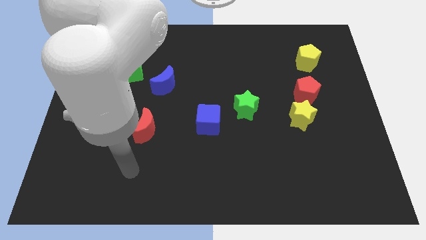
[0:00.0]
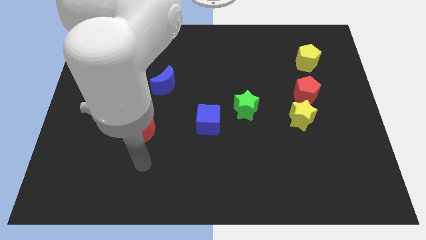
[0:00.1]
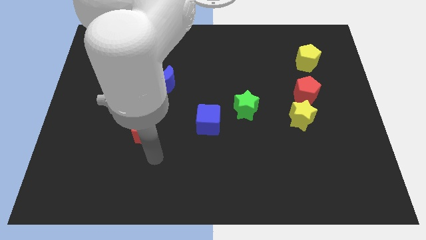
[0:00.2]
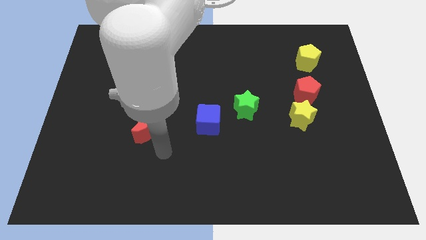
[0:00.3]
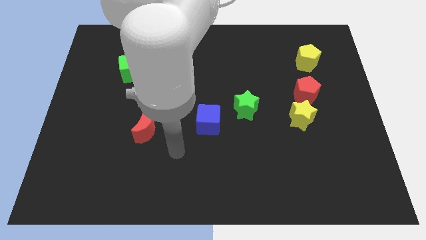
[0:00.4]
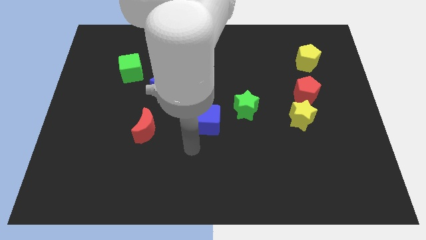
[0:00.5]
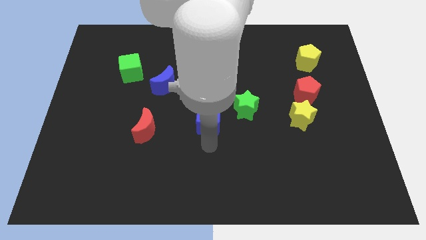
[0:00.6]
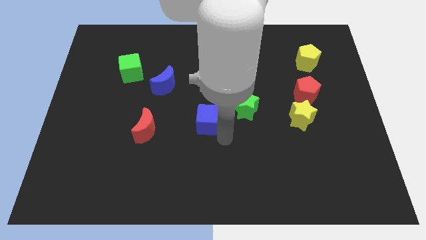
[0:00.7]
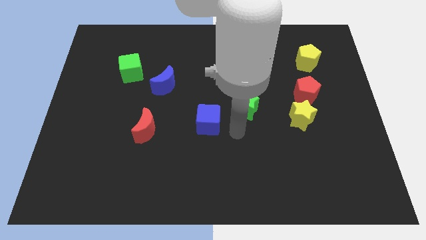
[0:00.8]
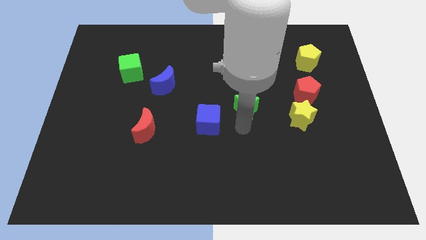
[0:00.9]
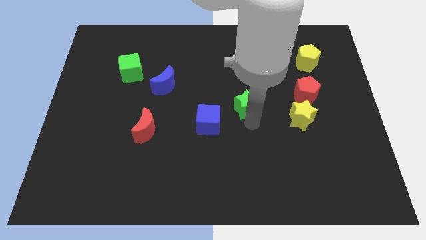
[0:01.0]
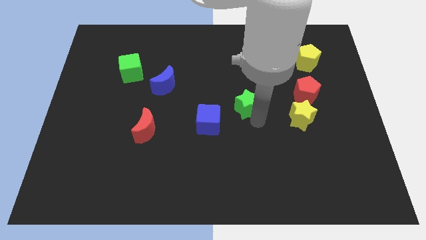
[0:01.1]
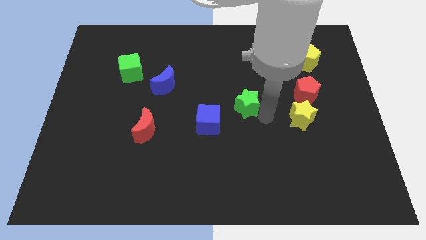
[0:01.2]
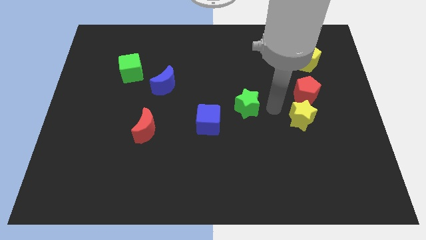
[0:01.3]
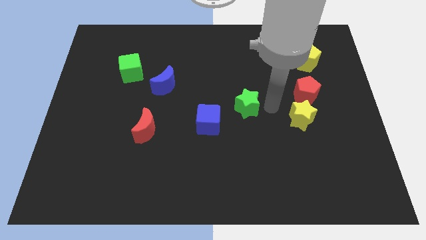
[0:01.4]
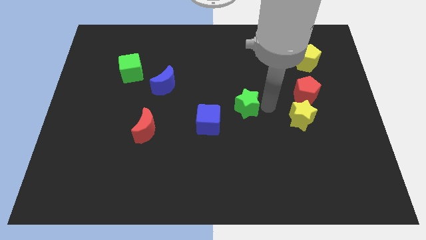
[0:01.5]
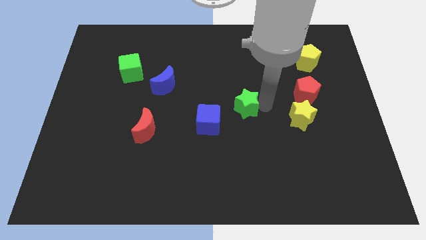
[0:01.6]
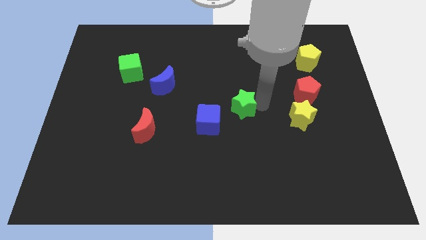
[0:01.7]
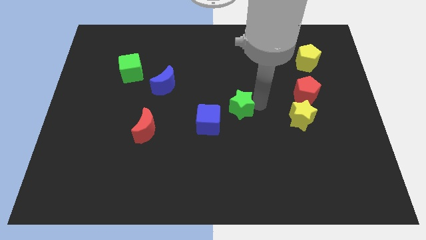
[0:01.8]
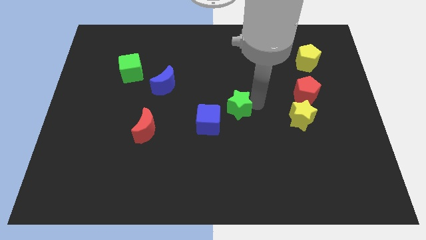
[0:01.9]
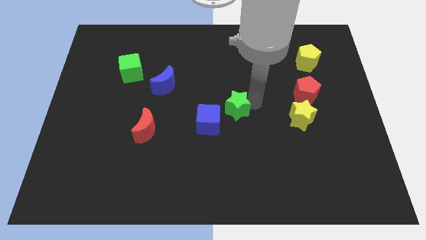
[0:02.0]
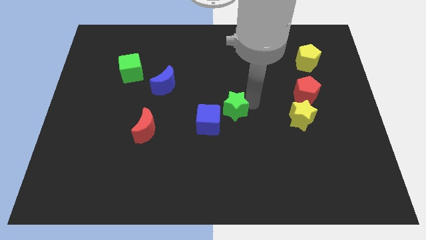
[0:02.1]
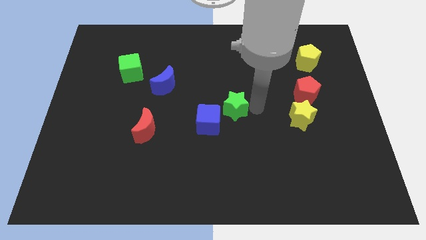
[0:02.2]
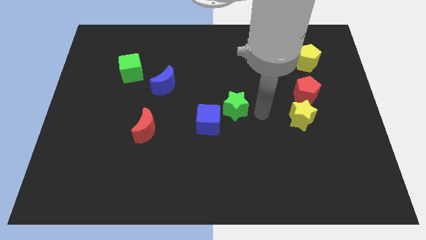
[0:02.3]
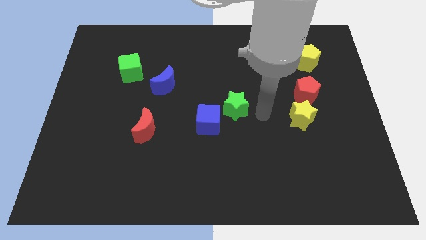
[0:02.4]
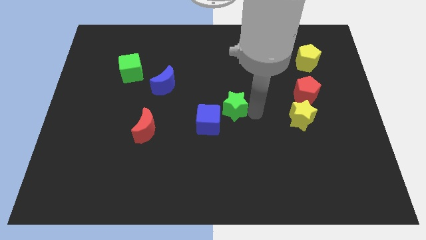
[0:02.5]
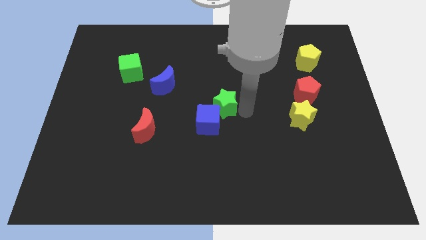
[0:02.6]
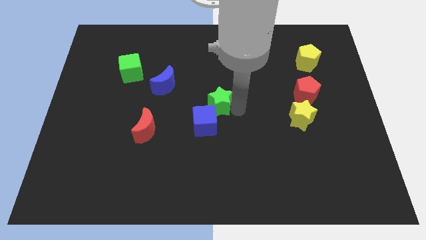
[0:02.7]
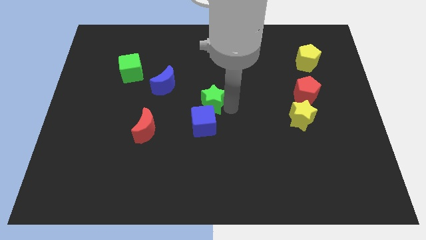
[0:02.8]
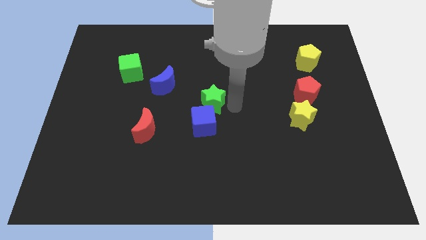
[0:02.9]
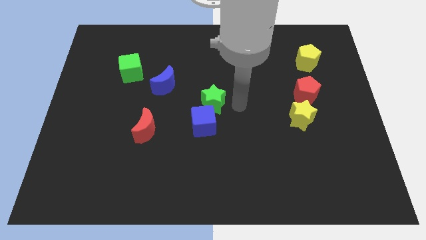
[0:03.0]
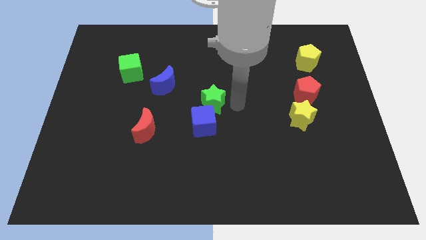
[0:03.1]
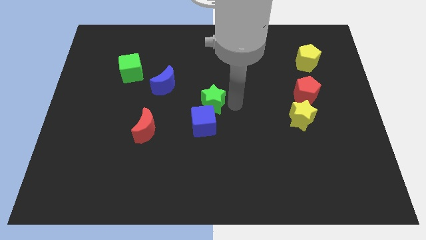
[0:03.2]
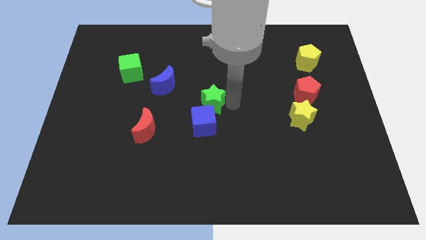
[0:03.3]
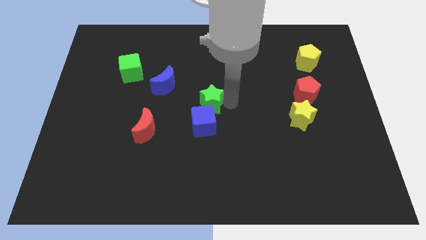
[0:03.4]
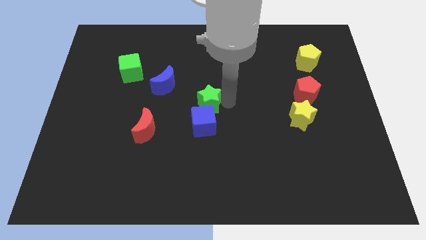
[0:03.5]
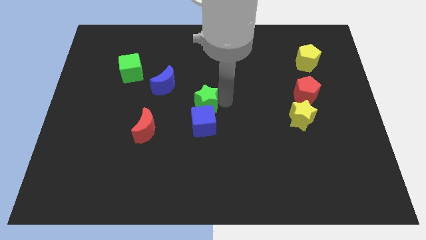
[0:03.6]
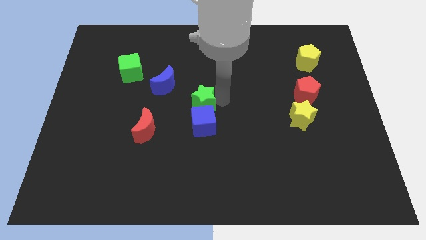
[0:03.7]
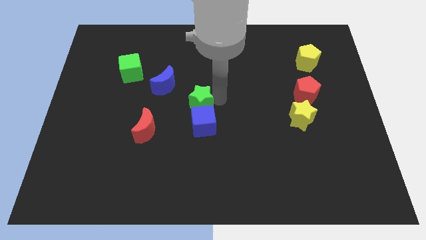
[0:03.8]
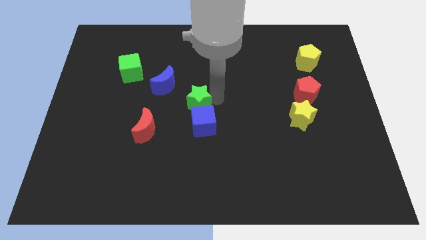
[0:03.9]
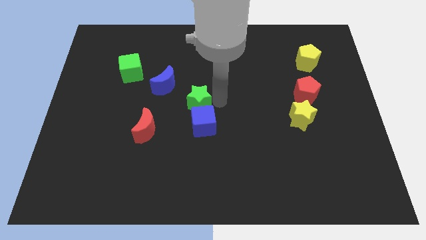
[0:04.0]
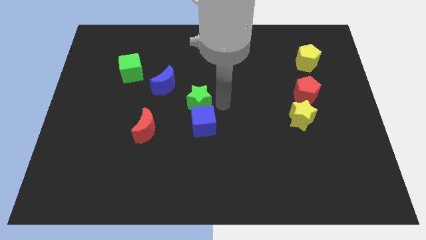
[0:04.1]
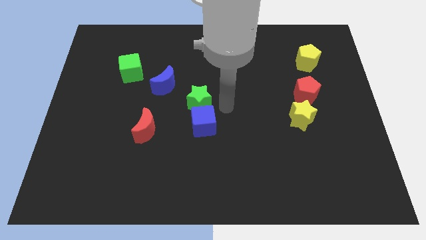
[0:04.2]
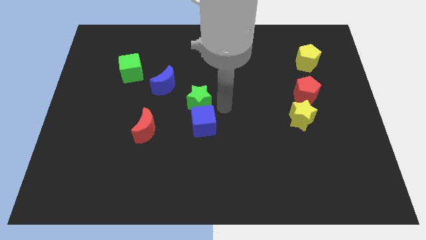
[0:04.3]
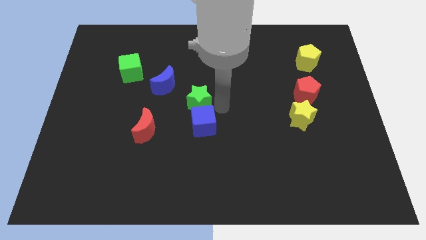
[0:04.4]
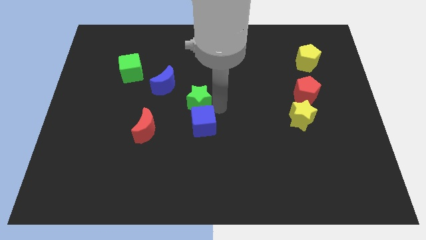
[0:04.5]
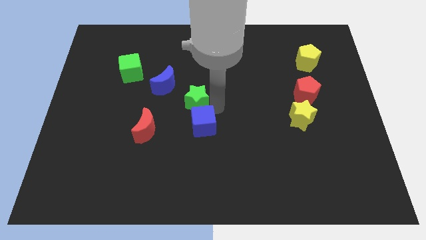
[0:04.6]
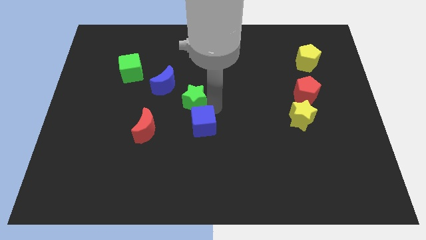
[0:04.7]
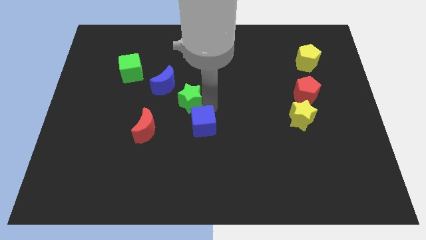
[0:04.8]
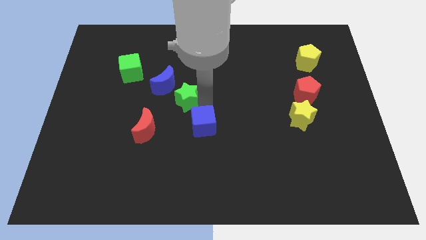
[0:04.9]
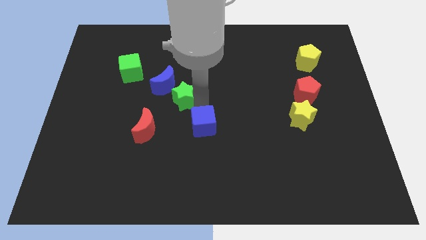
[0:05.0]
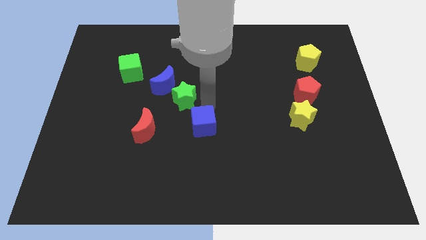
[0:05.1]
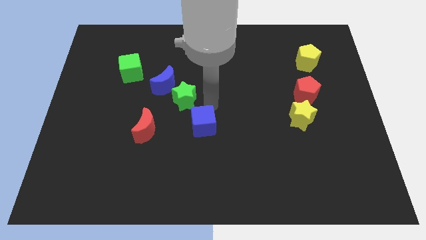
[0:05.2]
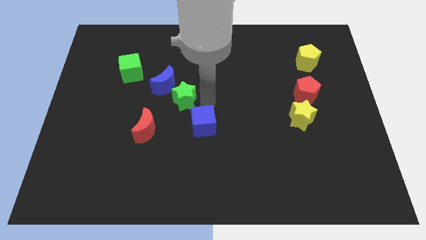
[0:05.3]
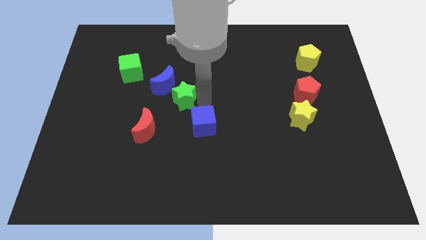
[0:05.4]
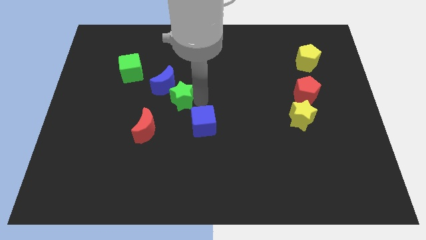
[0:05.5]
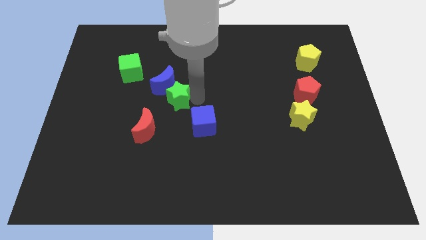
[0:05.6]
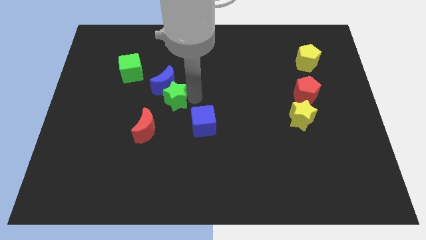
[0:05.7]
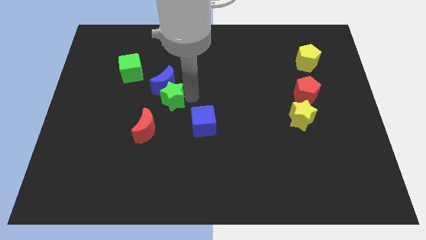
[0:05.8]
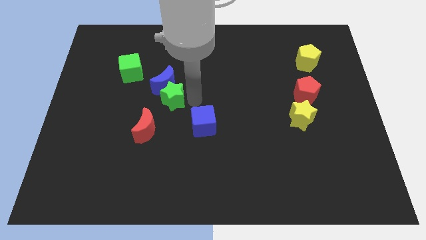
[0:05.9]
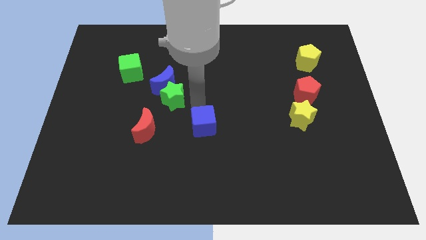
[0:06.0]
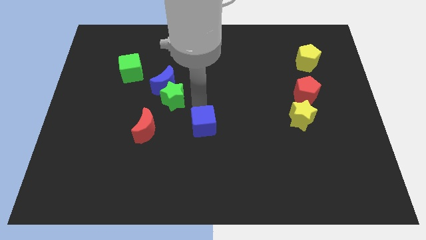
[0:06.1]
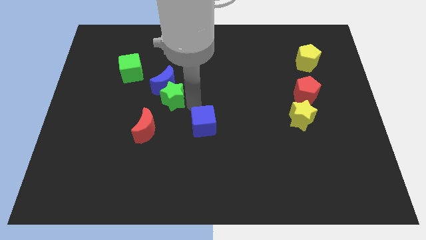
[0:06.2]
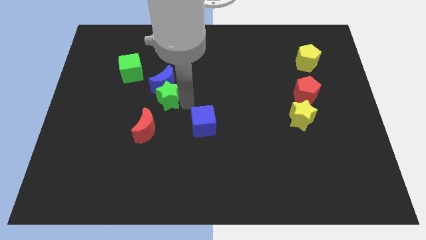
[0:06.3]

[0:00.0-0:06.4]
push the green star to the top of the red moon
